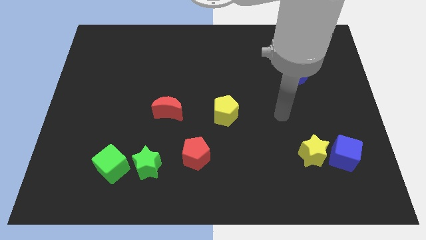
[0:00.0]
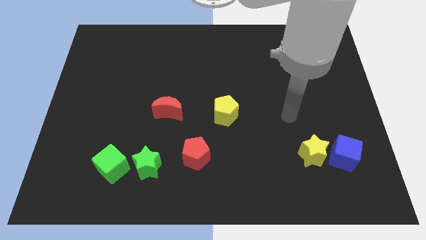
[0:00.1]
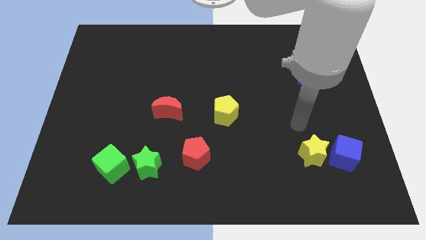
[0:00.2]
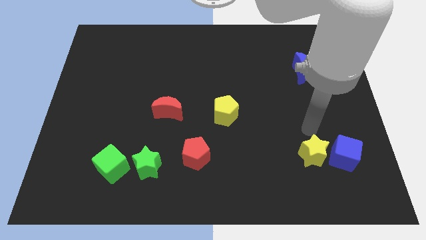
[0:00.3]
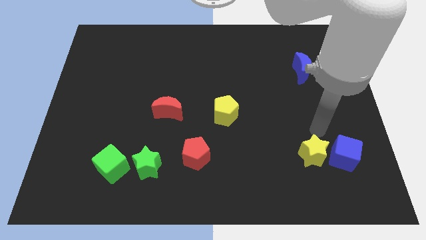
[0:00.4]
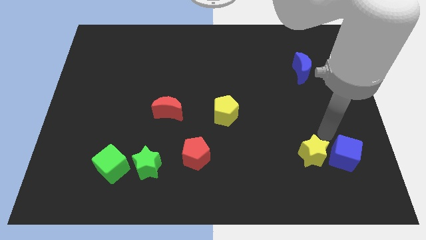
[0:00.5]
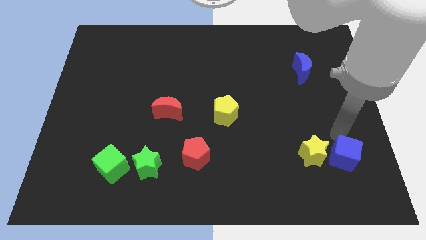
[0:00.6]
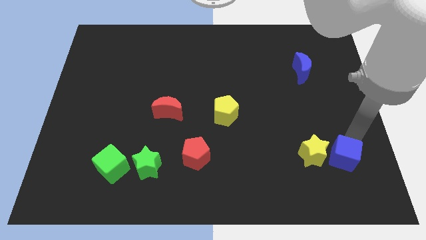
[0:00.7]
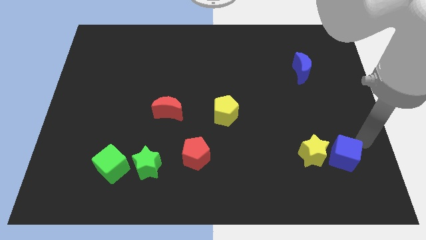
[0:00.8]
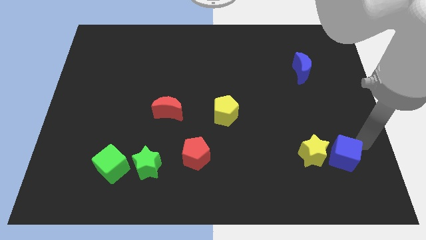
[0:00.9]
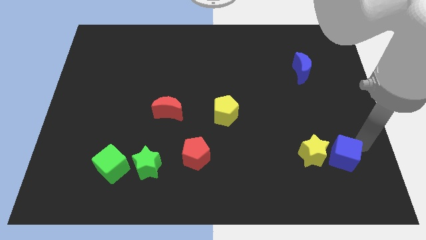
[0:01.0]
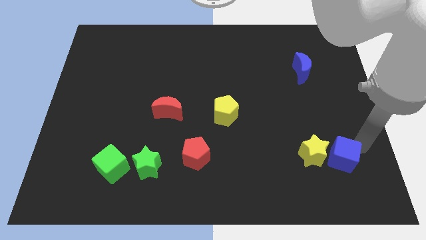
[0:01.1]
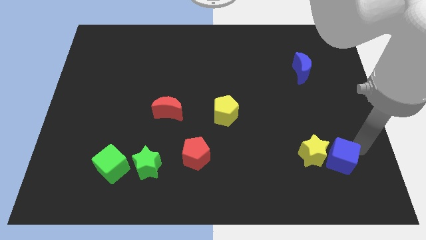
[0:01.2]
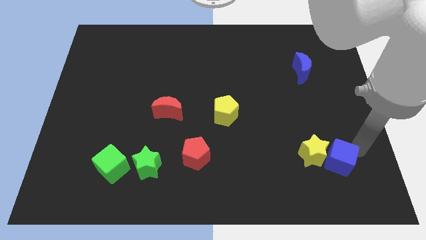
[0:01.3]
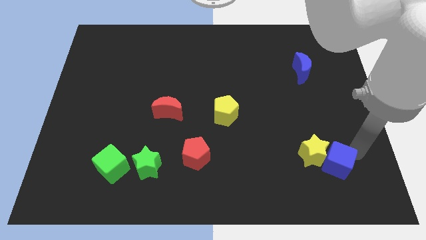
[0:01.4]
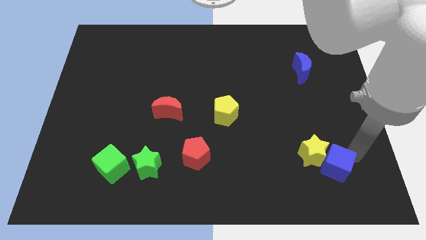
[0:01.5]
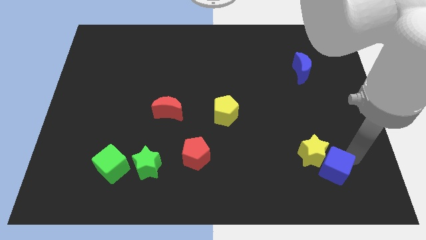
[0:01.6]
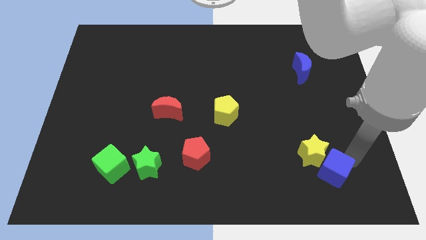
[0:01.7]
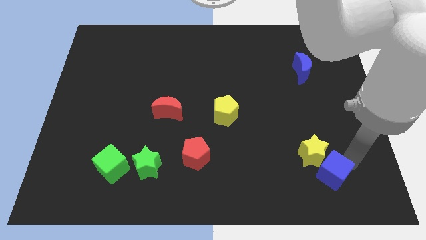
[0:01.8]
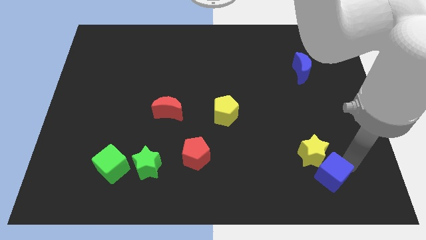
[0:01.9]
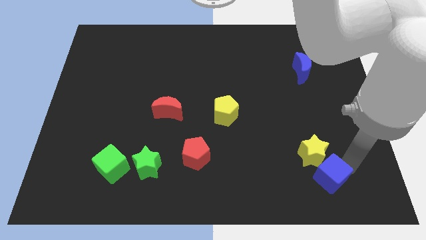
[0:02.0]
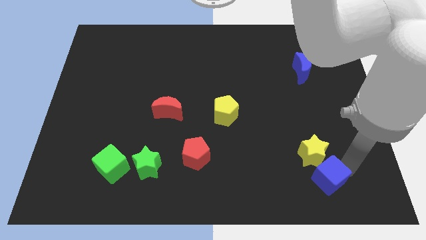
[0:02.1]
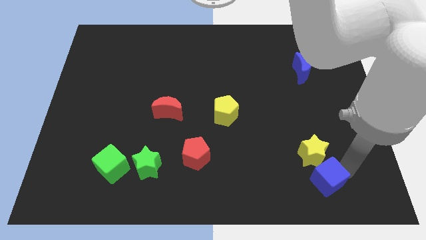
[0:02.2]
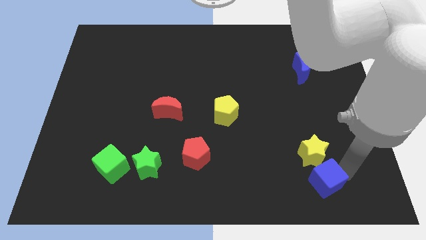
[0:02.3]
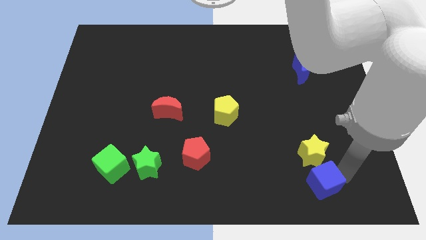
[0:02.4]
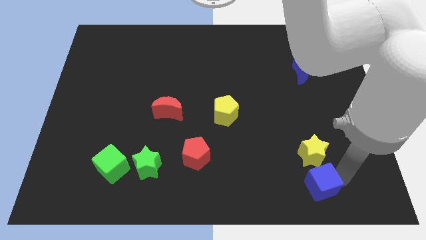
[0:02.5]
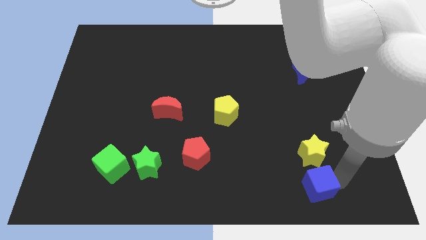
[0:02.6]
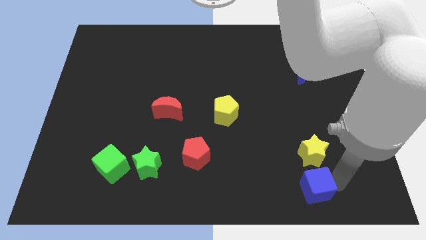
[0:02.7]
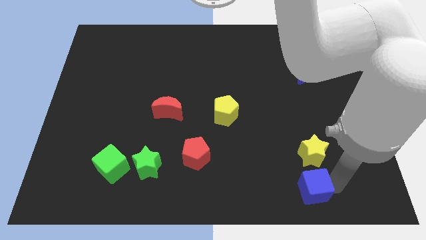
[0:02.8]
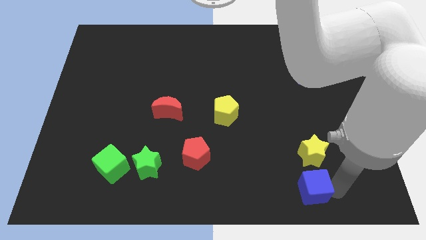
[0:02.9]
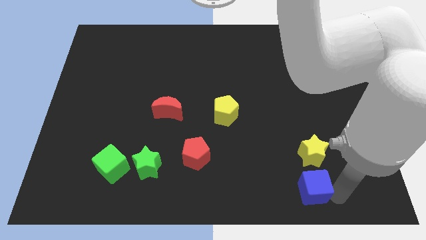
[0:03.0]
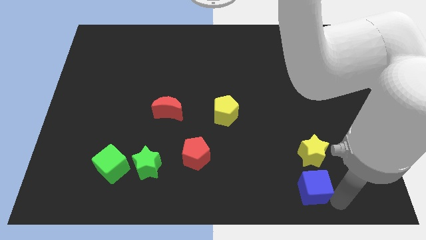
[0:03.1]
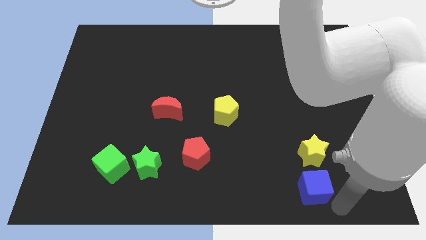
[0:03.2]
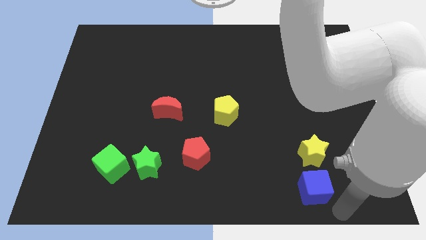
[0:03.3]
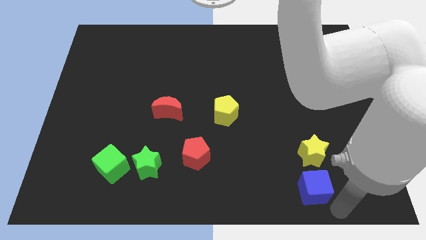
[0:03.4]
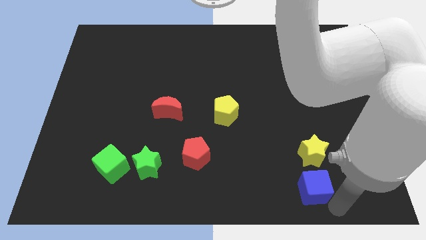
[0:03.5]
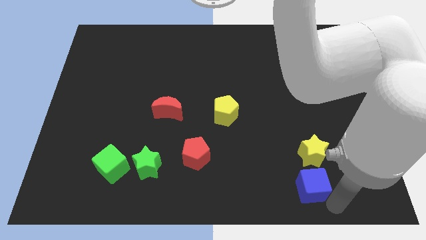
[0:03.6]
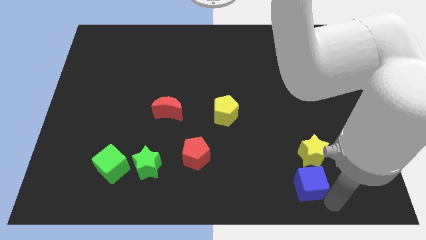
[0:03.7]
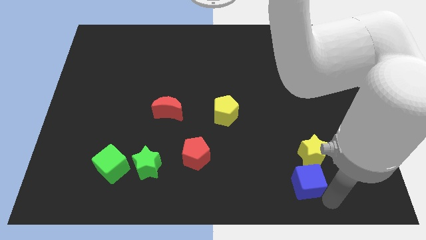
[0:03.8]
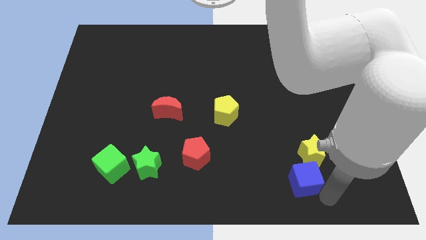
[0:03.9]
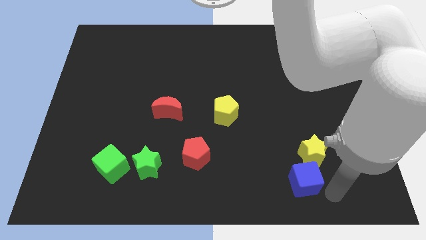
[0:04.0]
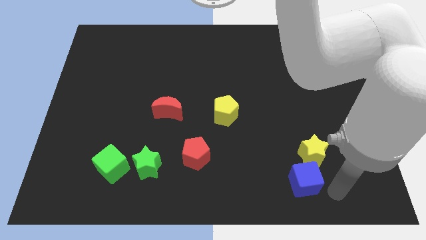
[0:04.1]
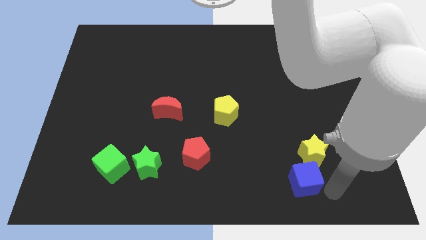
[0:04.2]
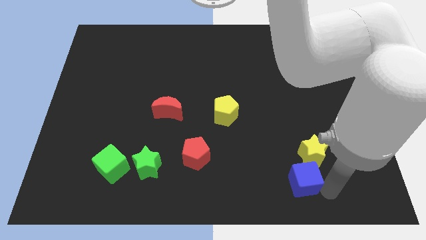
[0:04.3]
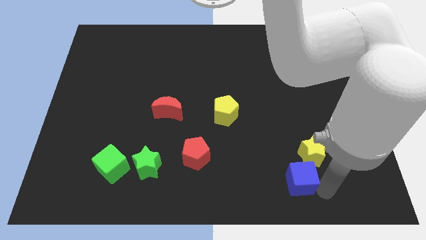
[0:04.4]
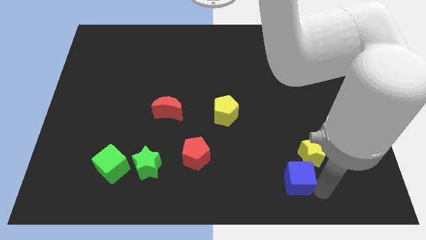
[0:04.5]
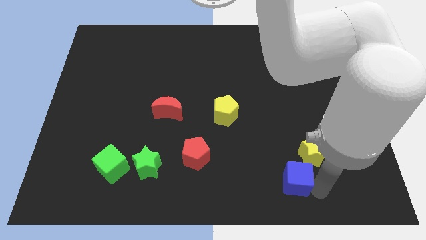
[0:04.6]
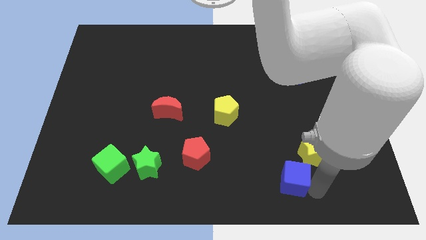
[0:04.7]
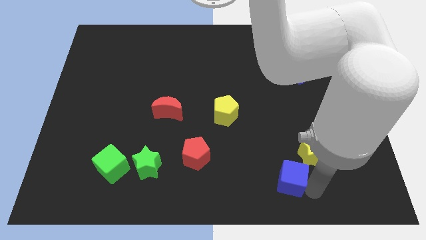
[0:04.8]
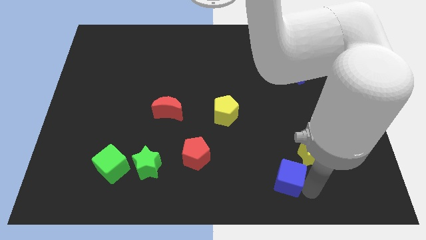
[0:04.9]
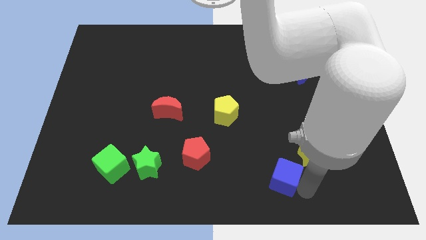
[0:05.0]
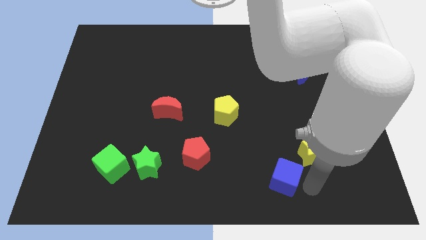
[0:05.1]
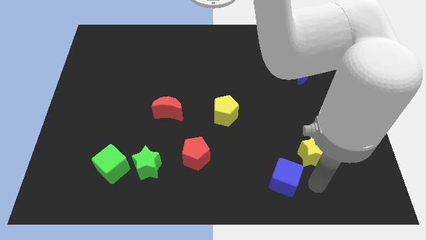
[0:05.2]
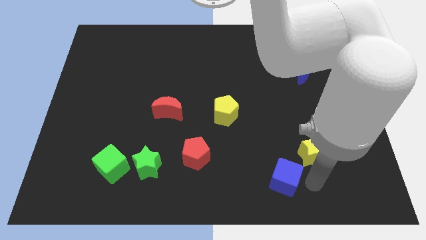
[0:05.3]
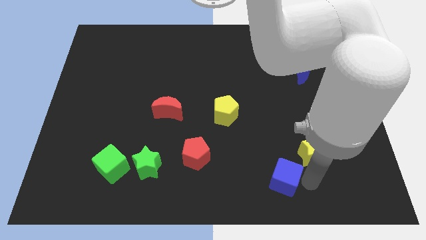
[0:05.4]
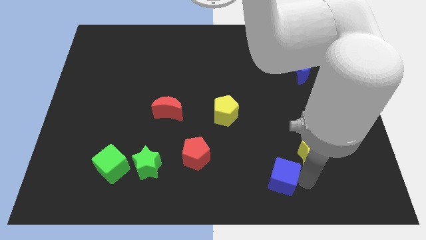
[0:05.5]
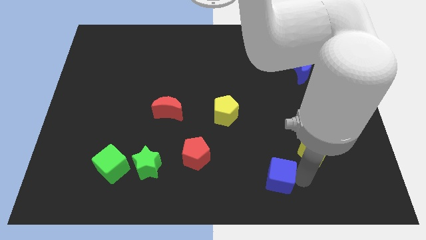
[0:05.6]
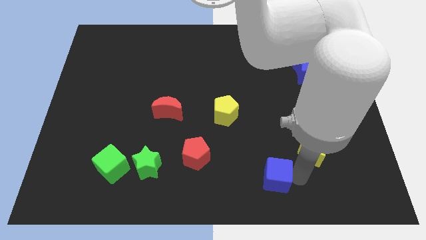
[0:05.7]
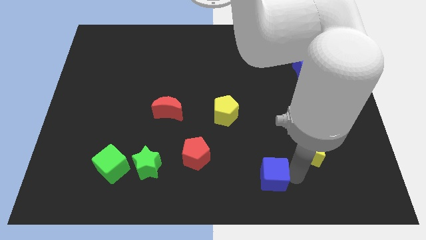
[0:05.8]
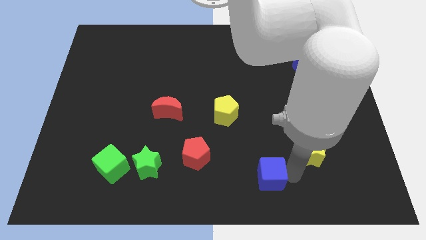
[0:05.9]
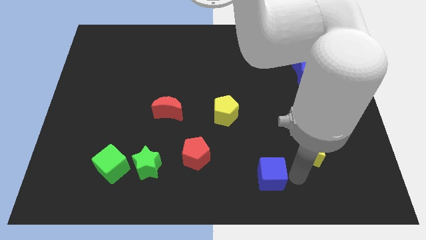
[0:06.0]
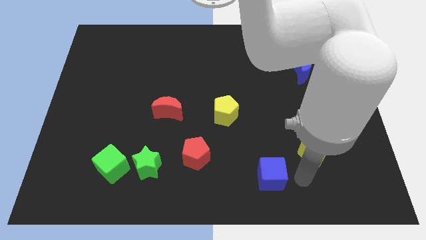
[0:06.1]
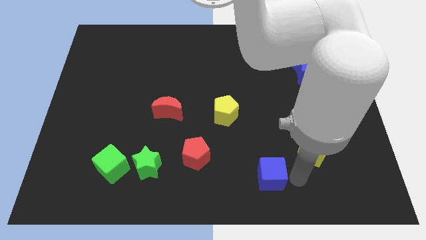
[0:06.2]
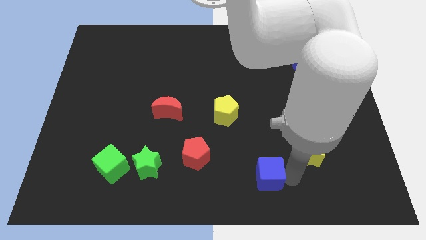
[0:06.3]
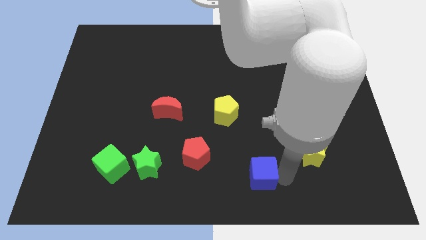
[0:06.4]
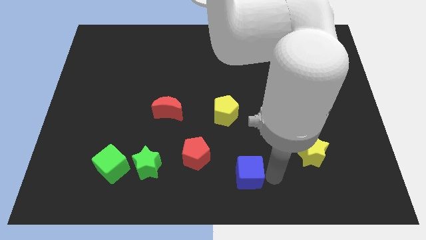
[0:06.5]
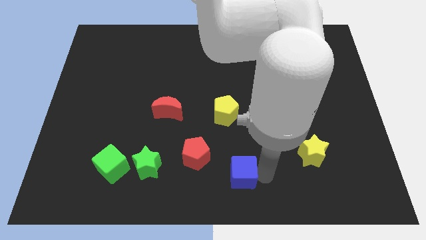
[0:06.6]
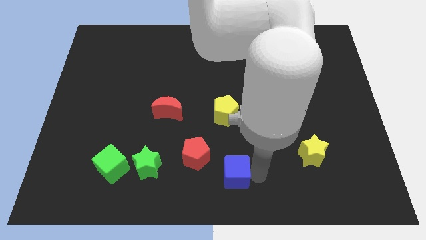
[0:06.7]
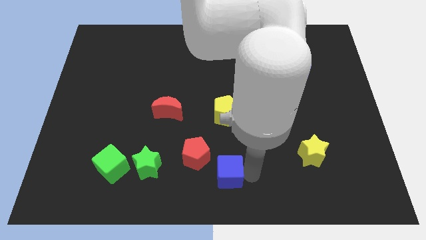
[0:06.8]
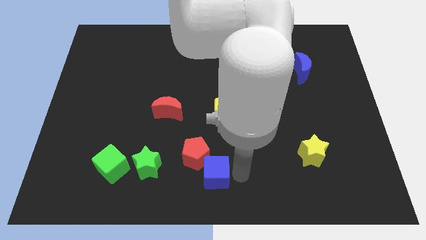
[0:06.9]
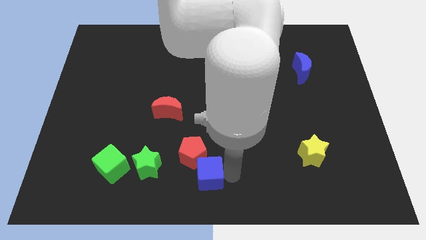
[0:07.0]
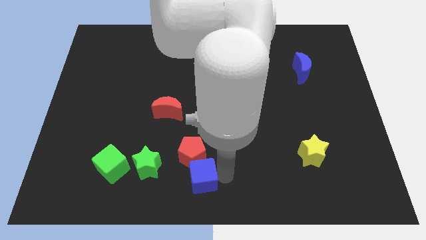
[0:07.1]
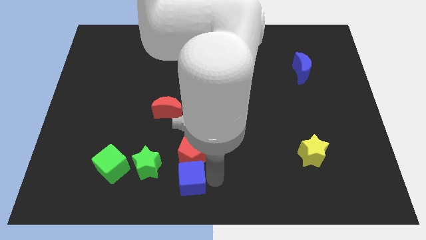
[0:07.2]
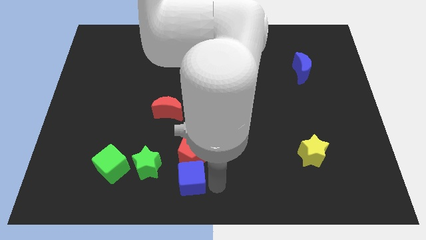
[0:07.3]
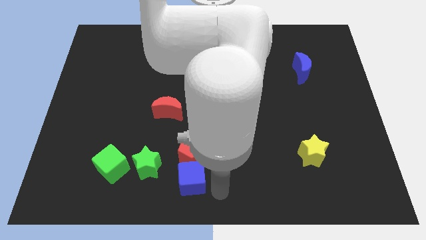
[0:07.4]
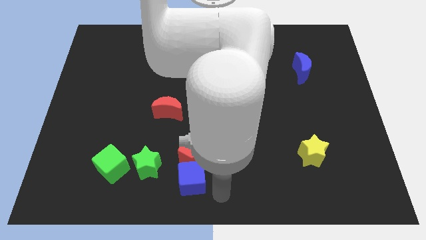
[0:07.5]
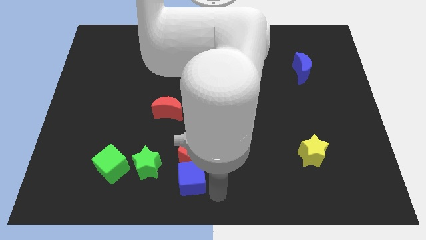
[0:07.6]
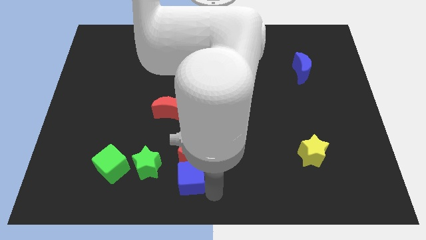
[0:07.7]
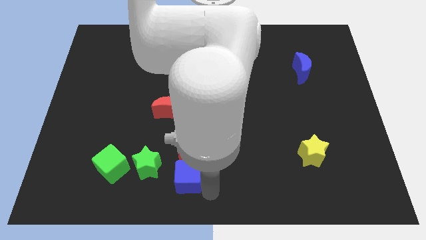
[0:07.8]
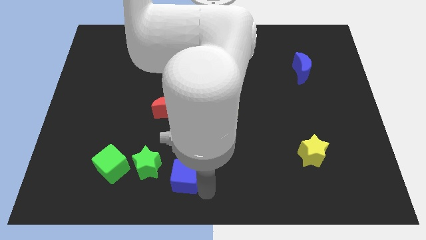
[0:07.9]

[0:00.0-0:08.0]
move the blue cube to the right of the green cube
